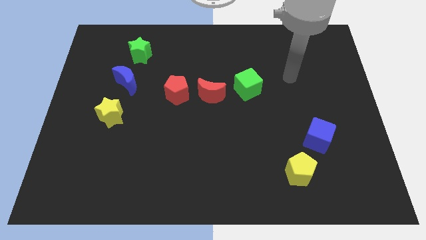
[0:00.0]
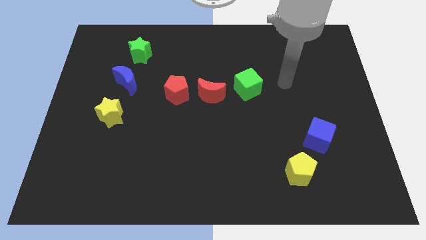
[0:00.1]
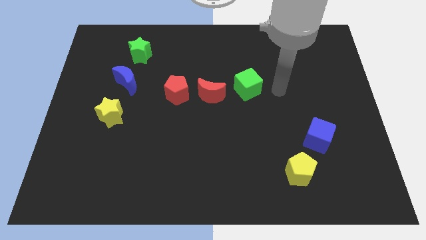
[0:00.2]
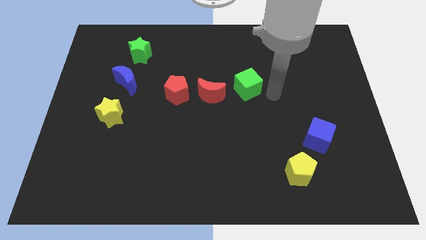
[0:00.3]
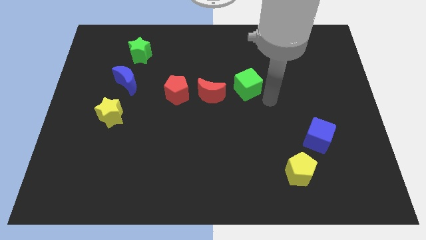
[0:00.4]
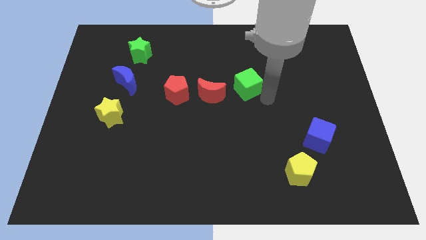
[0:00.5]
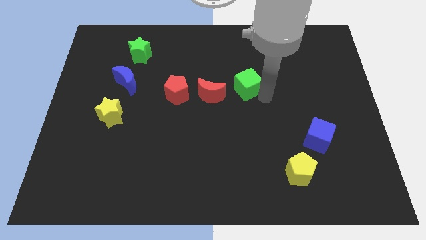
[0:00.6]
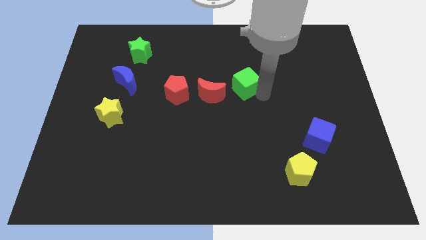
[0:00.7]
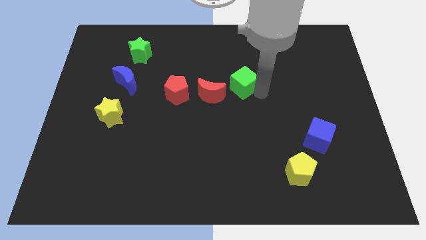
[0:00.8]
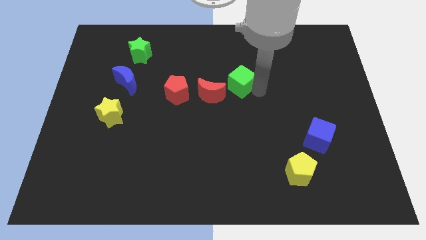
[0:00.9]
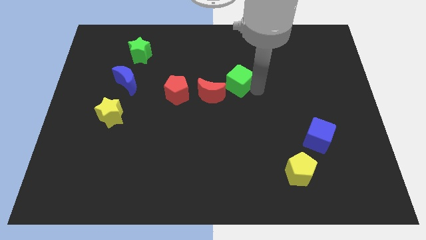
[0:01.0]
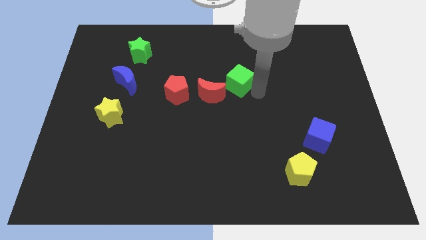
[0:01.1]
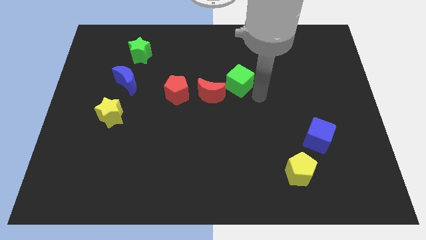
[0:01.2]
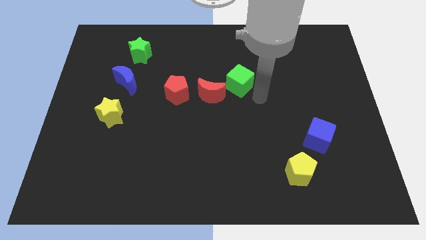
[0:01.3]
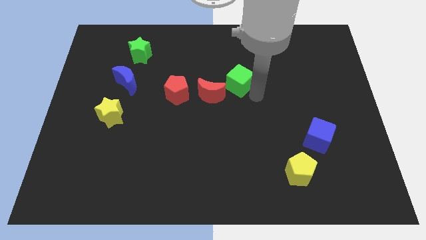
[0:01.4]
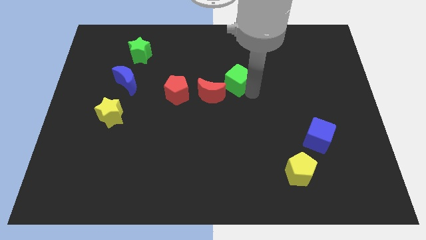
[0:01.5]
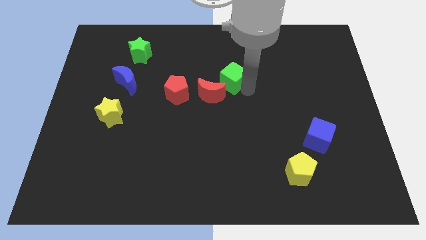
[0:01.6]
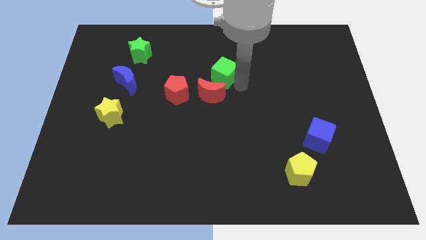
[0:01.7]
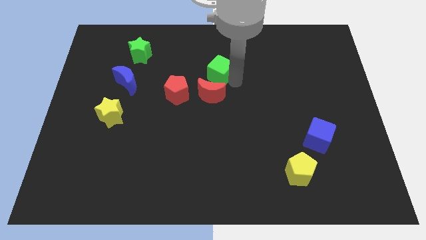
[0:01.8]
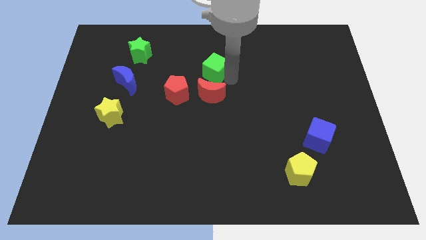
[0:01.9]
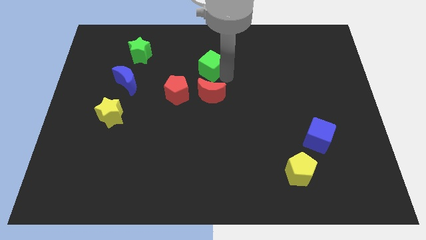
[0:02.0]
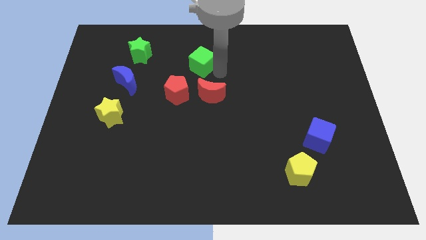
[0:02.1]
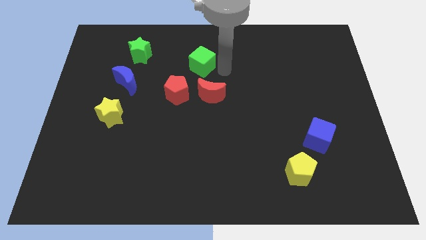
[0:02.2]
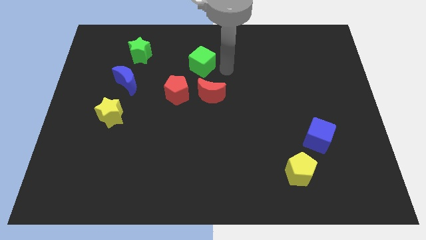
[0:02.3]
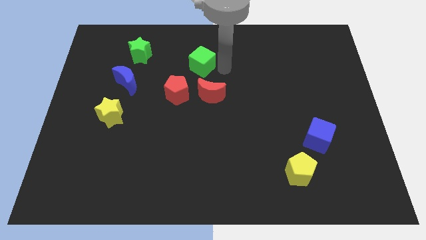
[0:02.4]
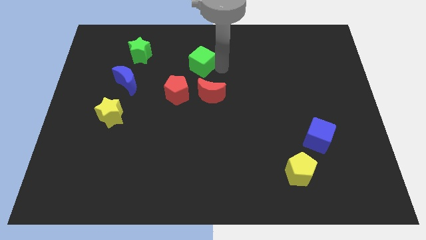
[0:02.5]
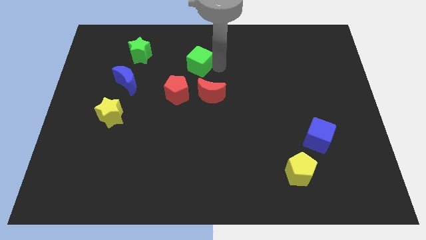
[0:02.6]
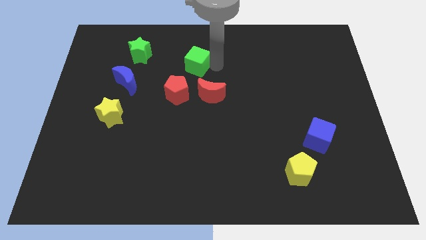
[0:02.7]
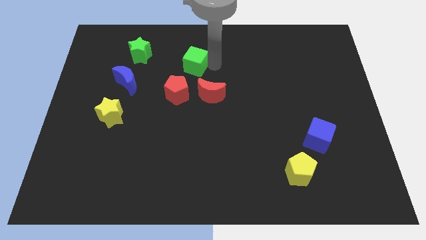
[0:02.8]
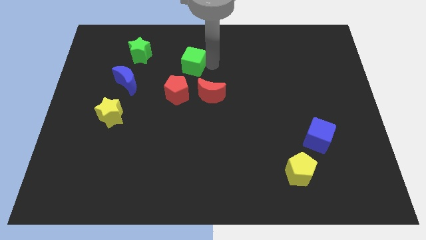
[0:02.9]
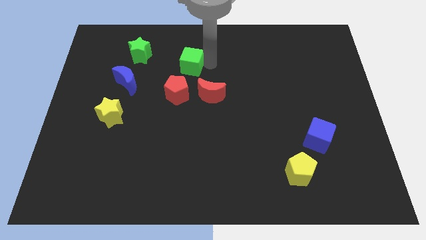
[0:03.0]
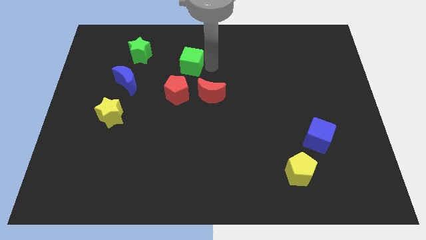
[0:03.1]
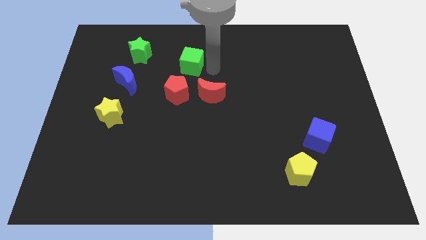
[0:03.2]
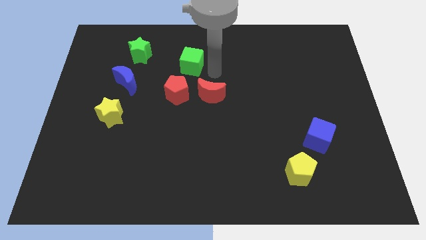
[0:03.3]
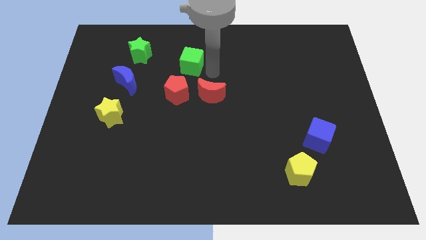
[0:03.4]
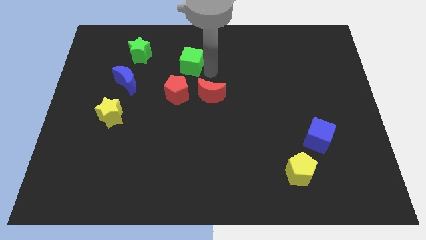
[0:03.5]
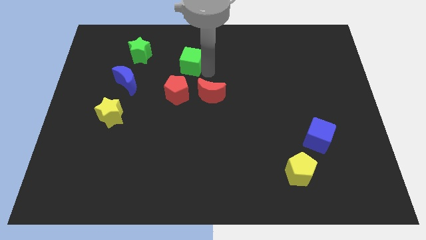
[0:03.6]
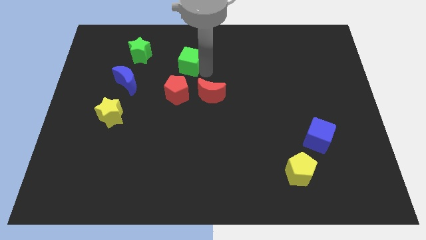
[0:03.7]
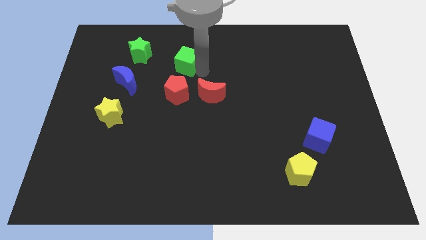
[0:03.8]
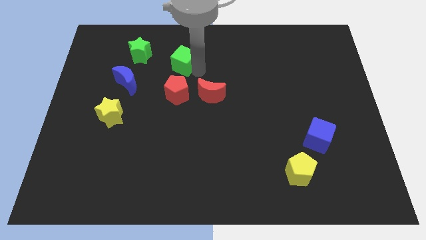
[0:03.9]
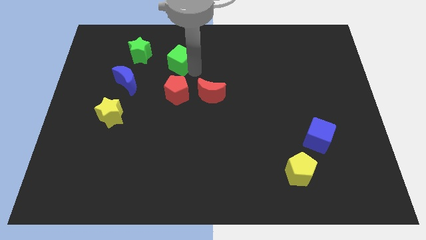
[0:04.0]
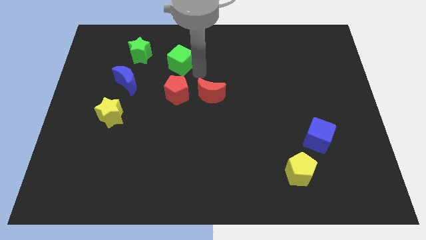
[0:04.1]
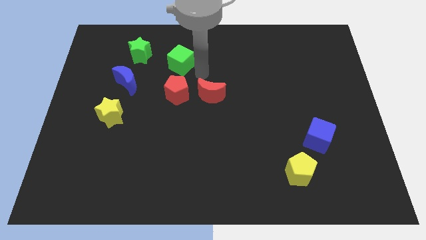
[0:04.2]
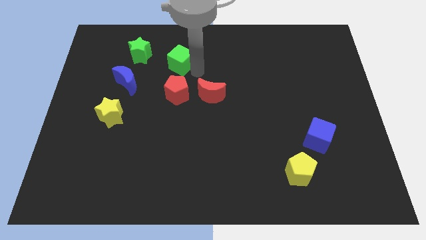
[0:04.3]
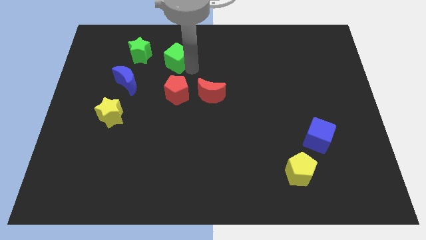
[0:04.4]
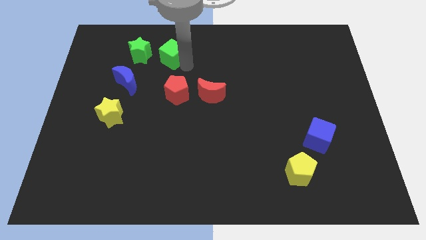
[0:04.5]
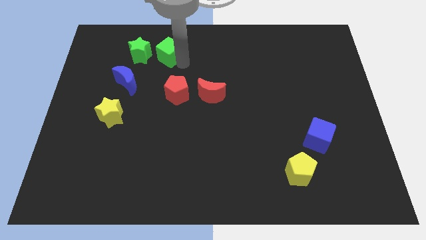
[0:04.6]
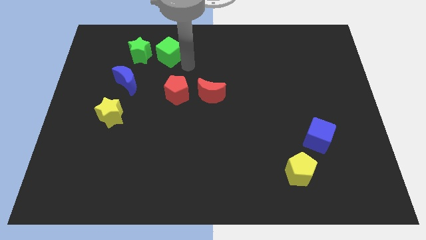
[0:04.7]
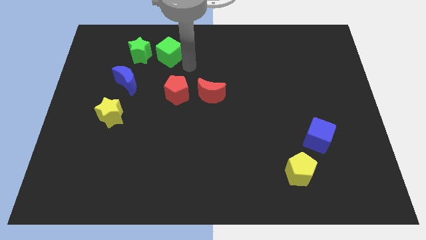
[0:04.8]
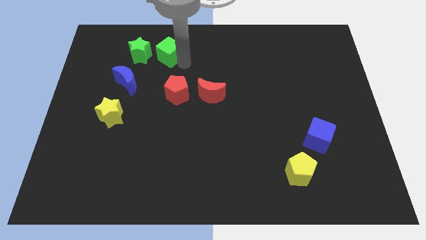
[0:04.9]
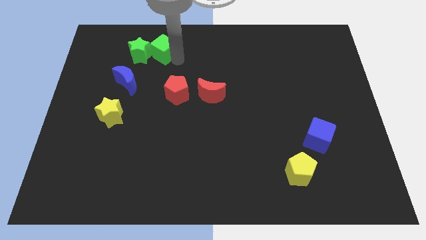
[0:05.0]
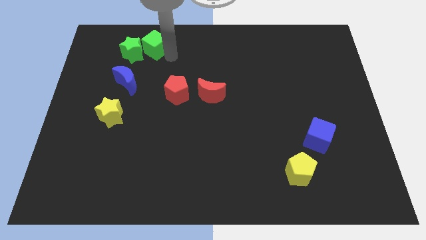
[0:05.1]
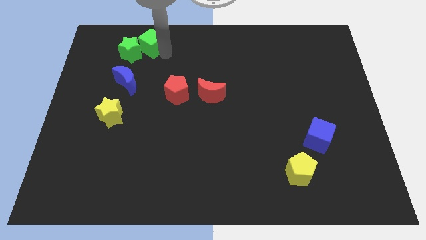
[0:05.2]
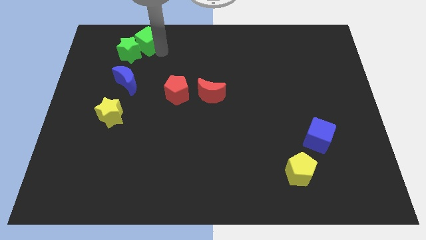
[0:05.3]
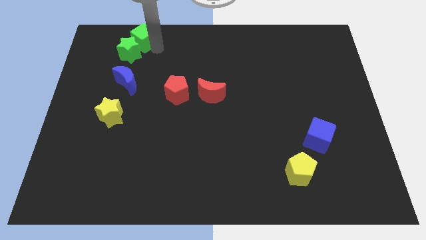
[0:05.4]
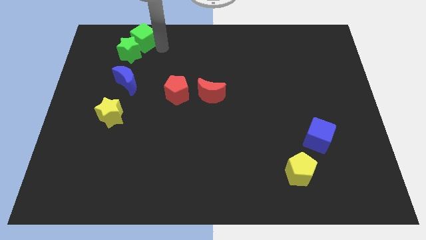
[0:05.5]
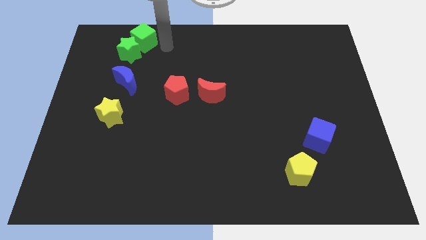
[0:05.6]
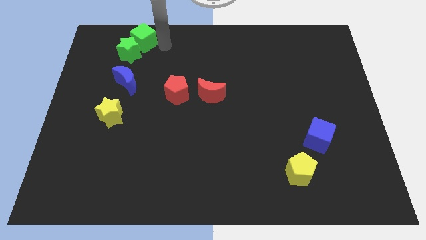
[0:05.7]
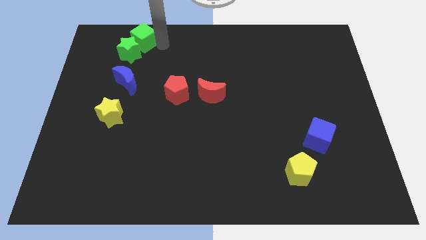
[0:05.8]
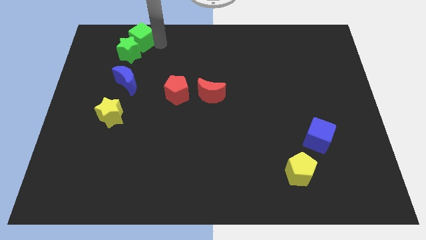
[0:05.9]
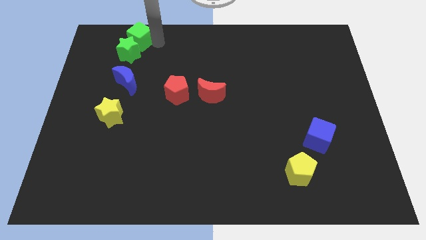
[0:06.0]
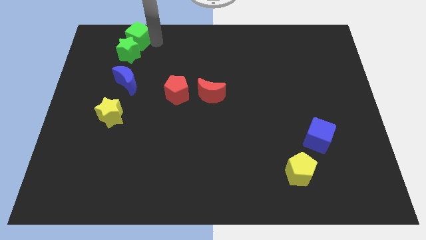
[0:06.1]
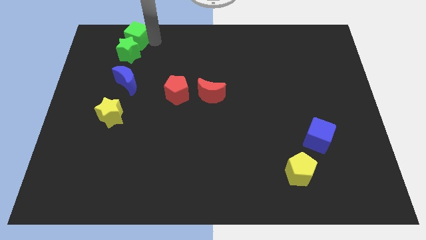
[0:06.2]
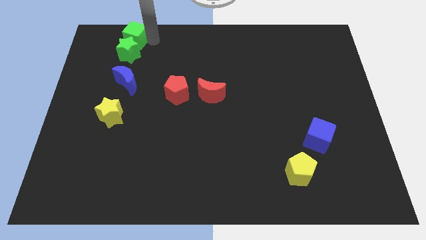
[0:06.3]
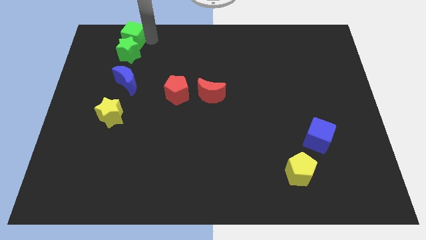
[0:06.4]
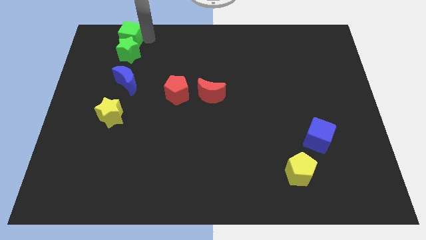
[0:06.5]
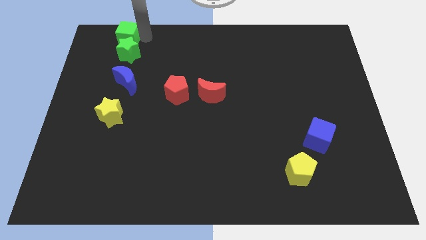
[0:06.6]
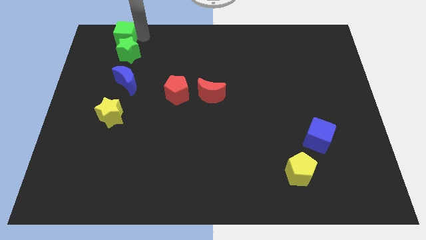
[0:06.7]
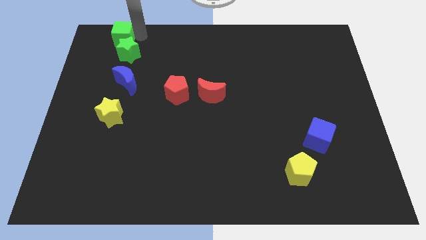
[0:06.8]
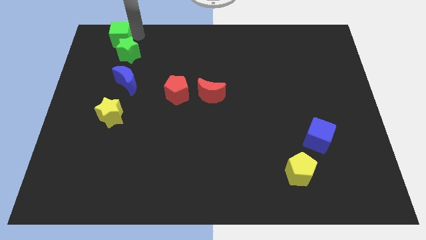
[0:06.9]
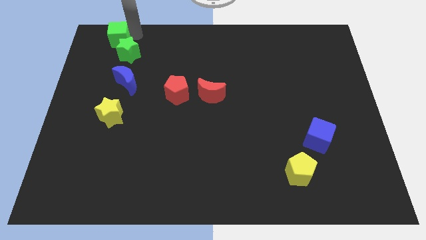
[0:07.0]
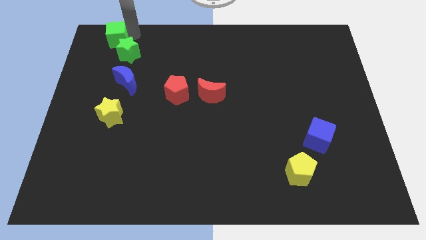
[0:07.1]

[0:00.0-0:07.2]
move the green cube to the top left of the board
